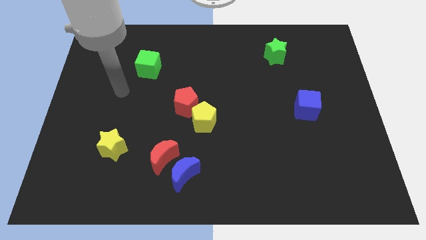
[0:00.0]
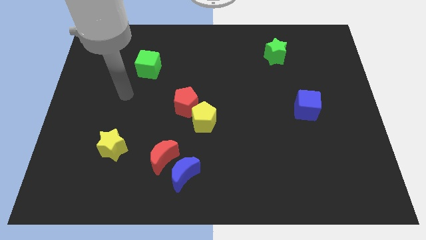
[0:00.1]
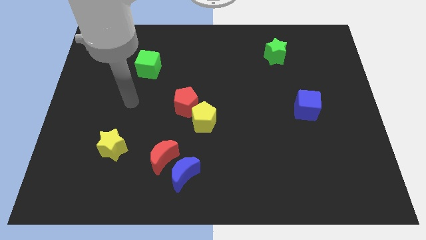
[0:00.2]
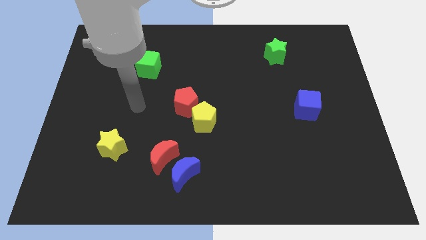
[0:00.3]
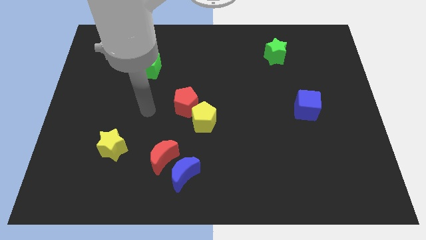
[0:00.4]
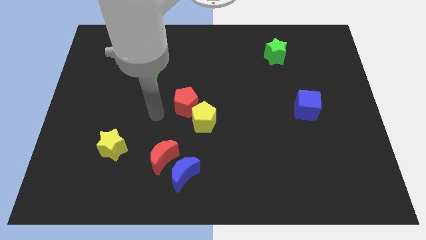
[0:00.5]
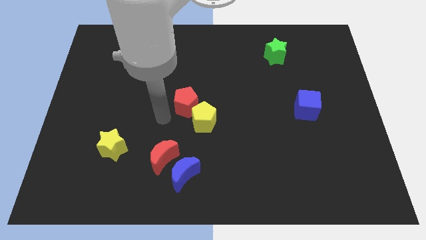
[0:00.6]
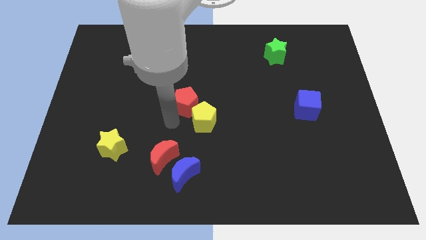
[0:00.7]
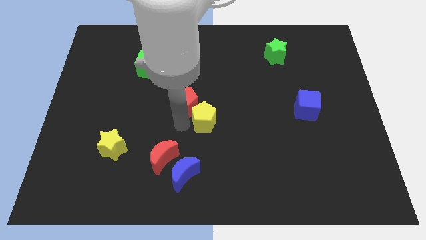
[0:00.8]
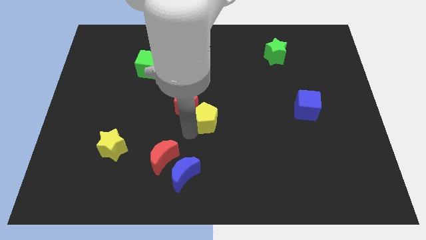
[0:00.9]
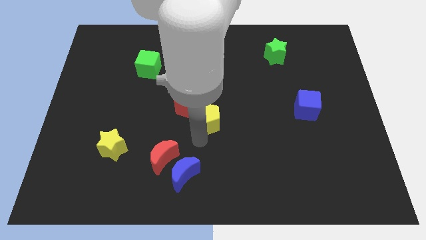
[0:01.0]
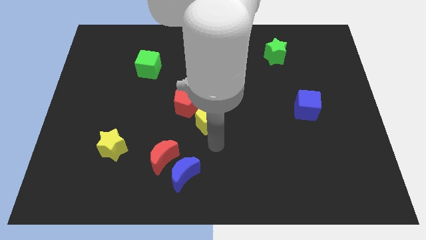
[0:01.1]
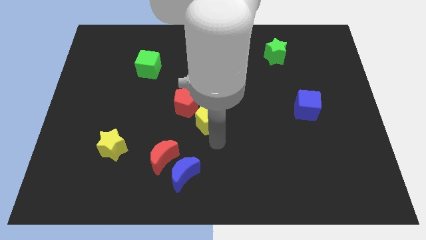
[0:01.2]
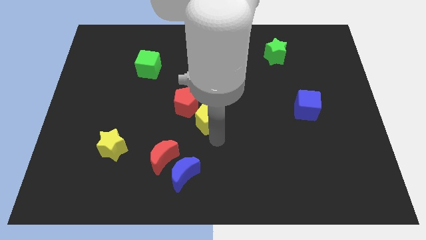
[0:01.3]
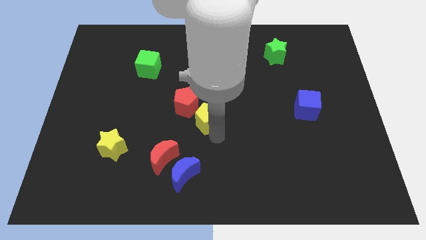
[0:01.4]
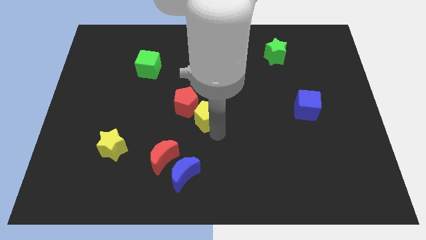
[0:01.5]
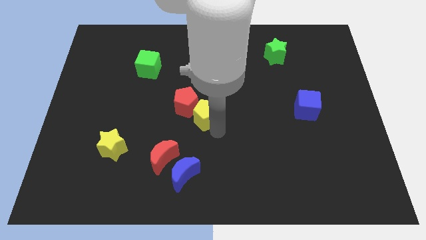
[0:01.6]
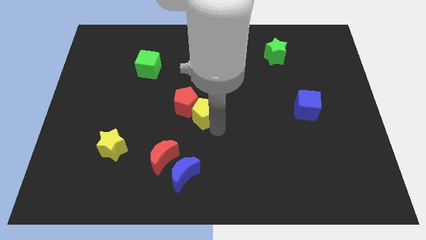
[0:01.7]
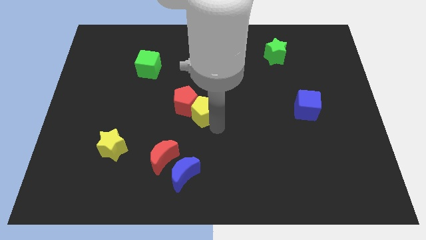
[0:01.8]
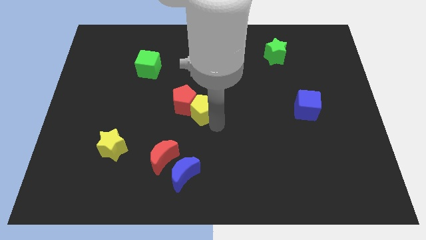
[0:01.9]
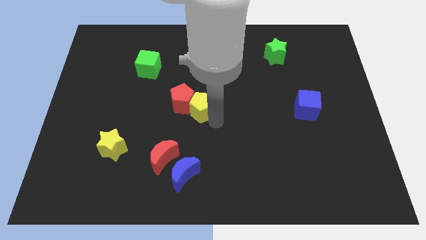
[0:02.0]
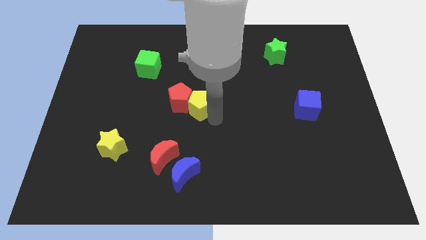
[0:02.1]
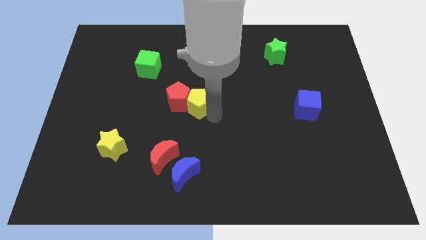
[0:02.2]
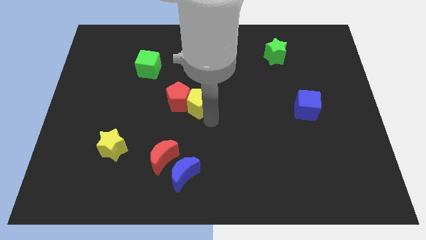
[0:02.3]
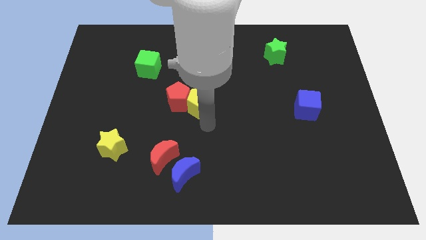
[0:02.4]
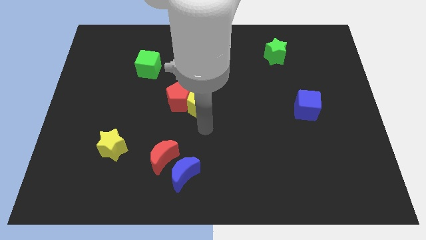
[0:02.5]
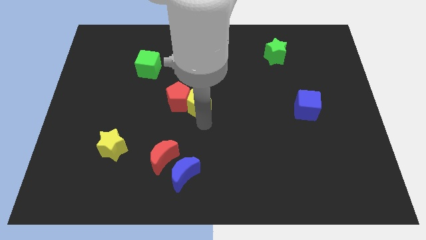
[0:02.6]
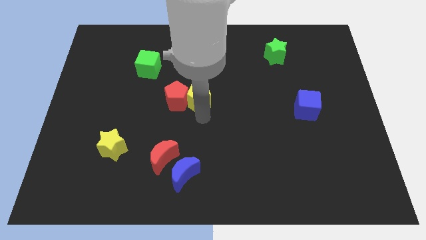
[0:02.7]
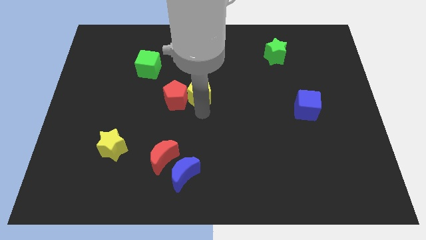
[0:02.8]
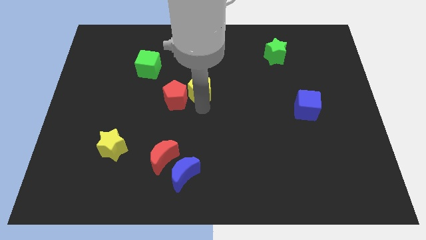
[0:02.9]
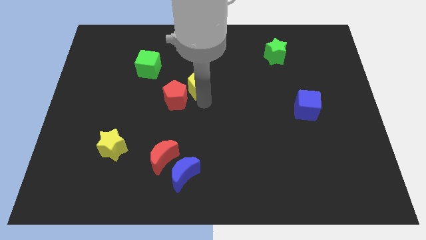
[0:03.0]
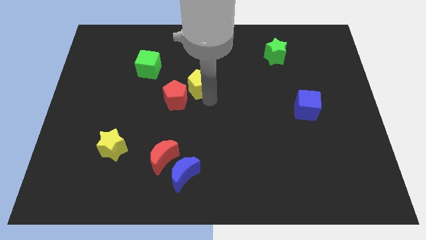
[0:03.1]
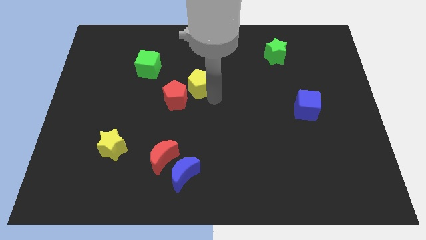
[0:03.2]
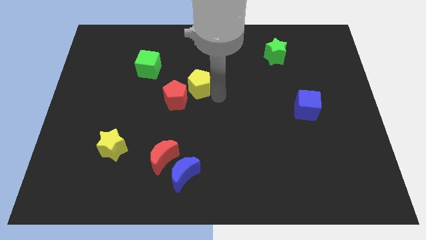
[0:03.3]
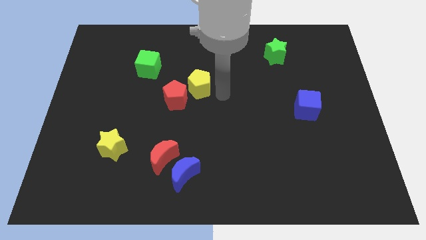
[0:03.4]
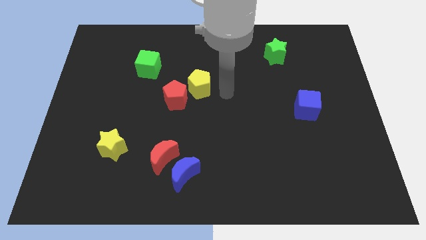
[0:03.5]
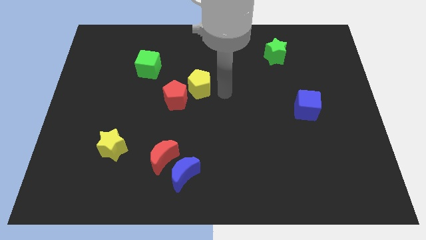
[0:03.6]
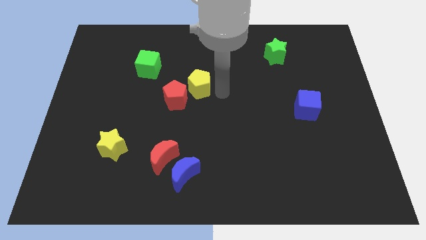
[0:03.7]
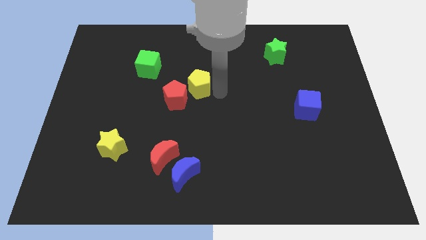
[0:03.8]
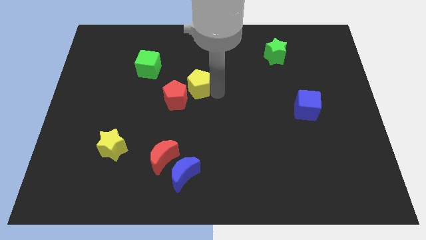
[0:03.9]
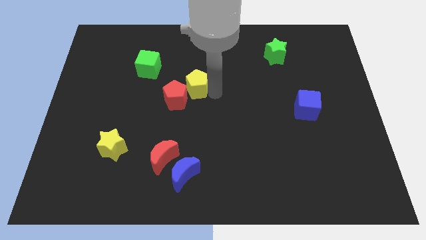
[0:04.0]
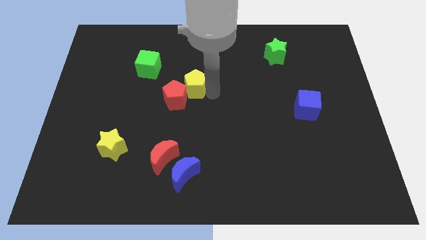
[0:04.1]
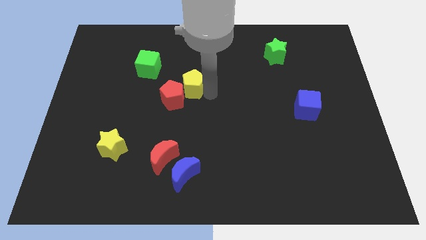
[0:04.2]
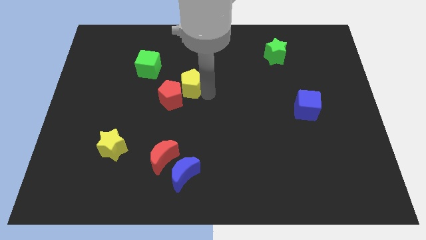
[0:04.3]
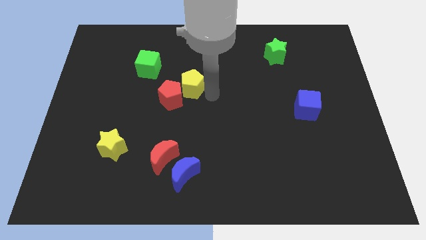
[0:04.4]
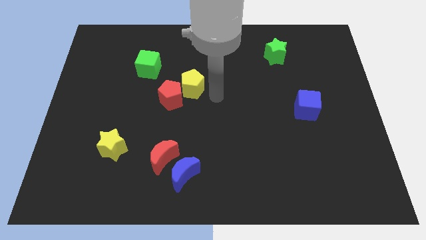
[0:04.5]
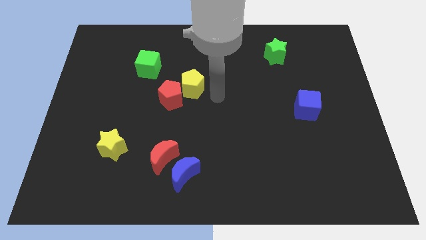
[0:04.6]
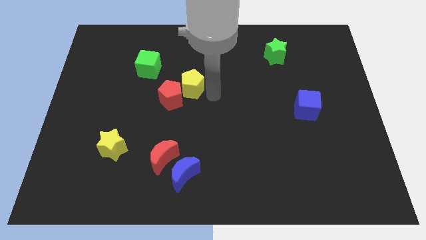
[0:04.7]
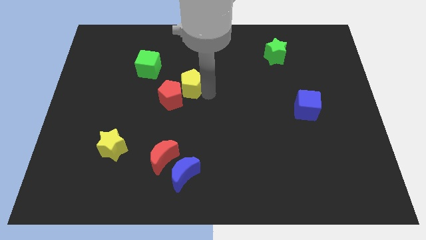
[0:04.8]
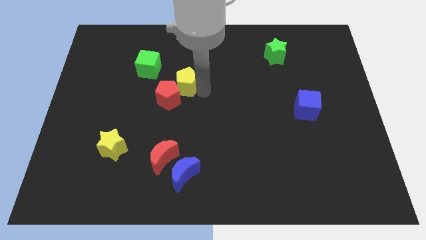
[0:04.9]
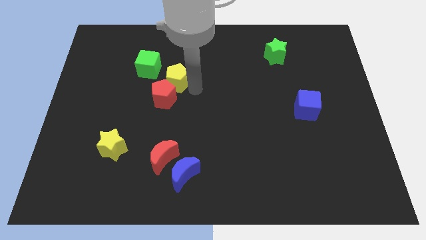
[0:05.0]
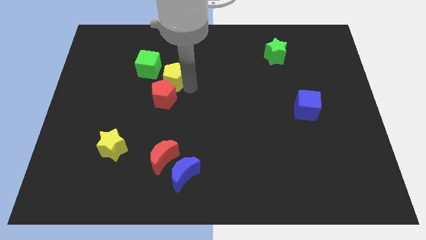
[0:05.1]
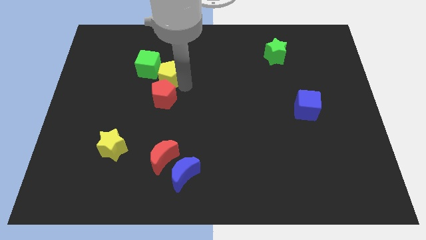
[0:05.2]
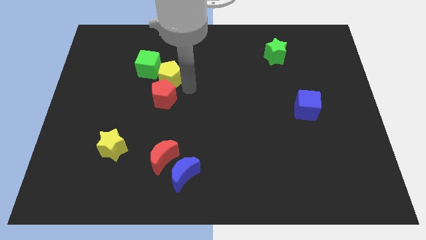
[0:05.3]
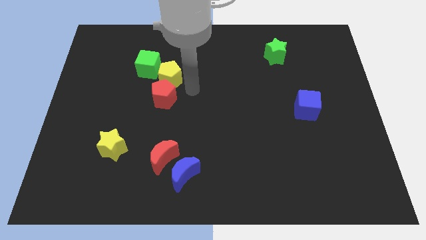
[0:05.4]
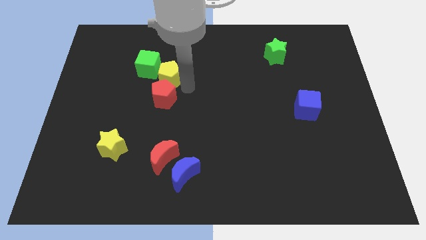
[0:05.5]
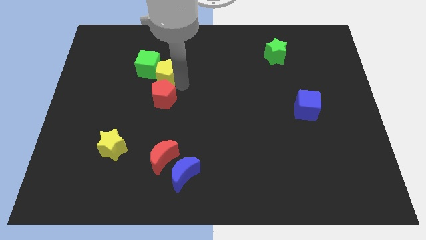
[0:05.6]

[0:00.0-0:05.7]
put the yellow pentagon close to the green cube

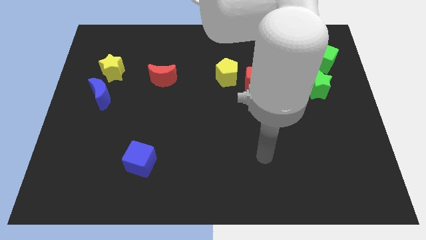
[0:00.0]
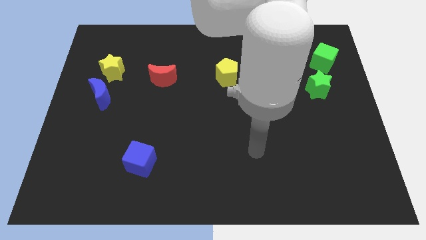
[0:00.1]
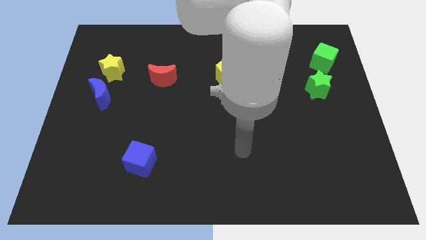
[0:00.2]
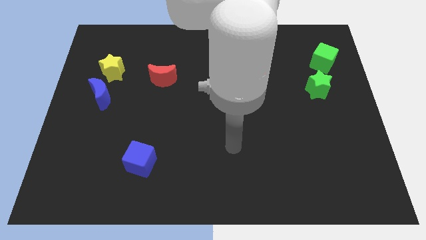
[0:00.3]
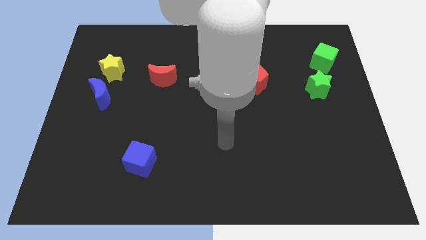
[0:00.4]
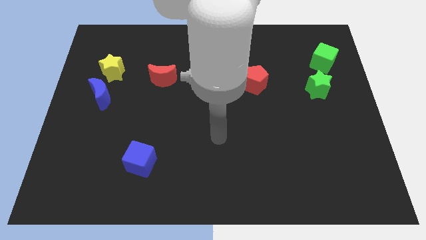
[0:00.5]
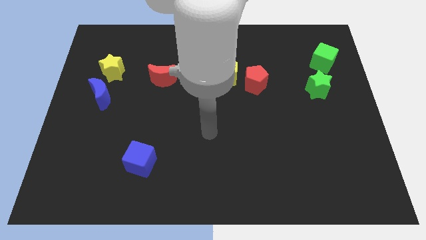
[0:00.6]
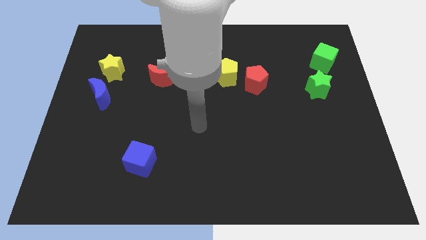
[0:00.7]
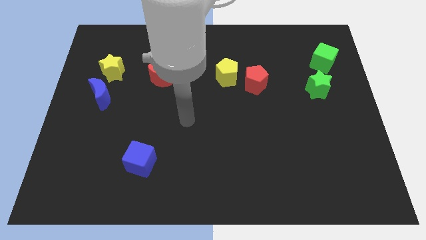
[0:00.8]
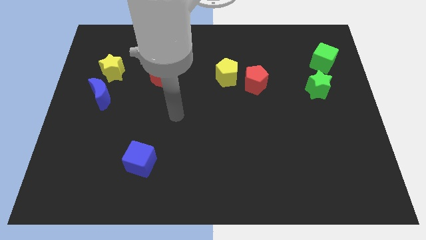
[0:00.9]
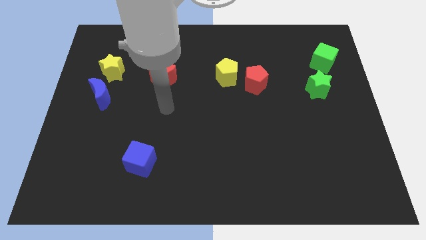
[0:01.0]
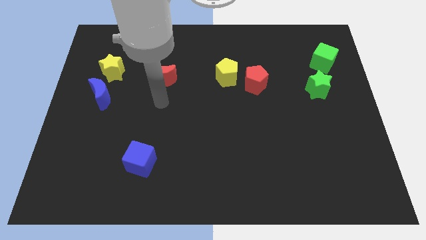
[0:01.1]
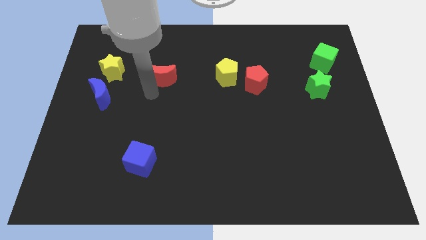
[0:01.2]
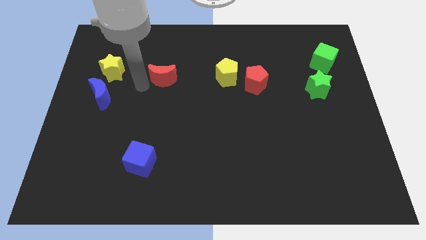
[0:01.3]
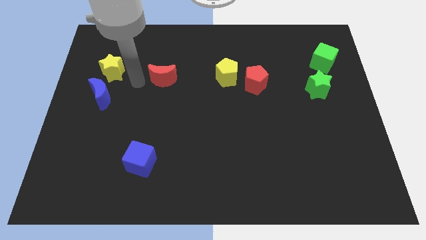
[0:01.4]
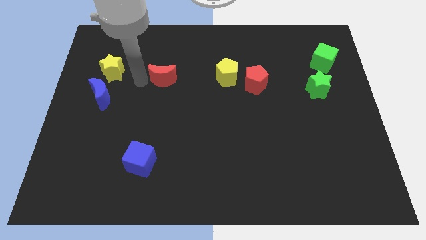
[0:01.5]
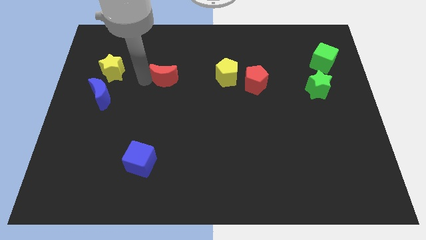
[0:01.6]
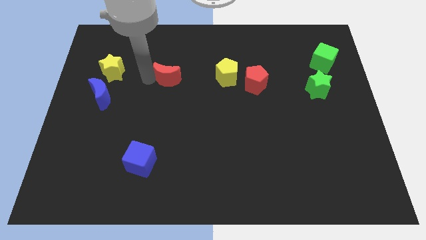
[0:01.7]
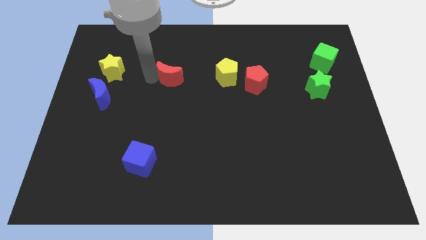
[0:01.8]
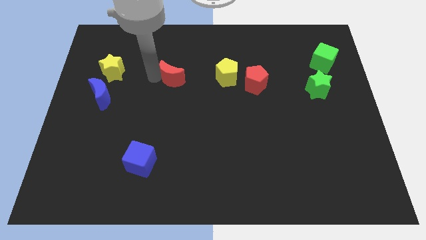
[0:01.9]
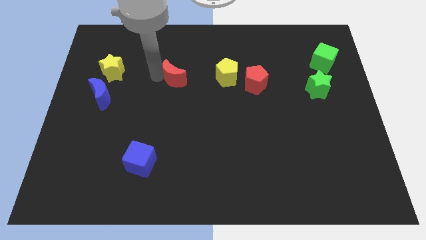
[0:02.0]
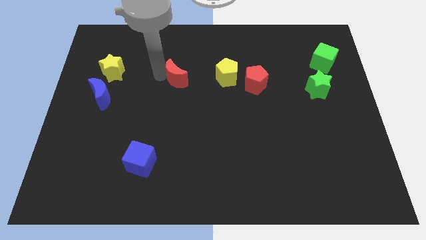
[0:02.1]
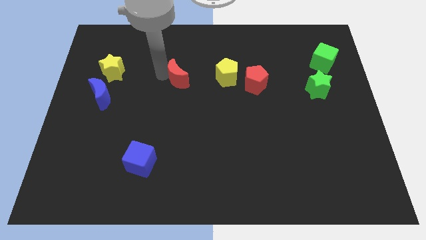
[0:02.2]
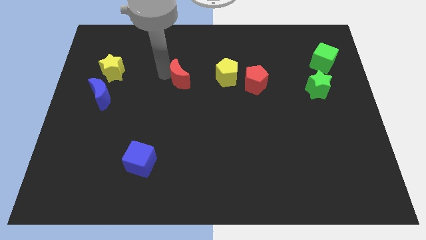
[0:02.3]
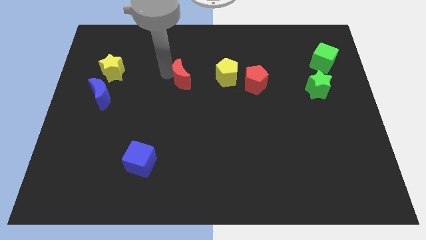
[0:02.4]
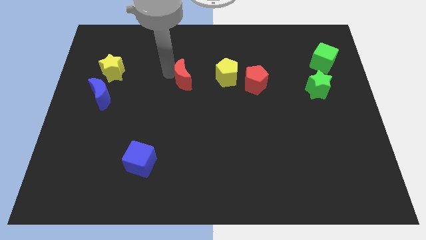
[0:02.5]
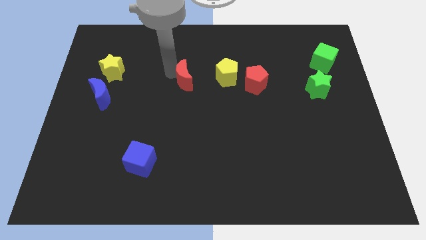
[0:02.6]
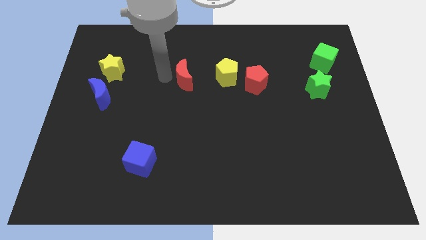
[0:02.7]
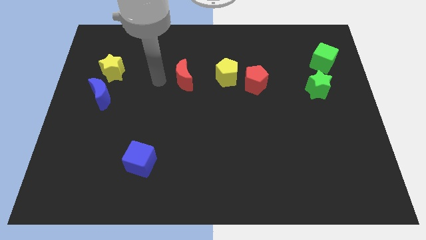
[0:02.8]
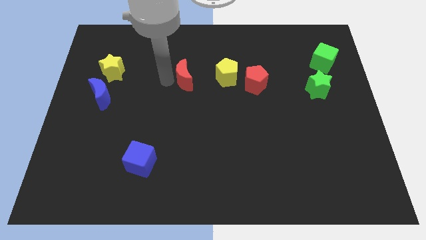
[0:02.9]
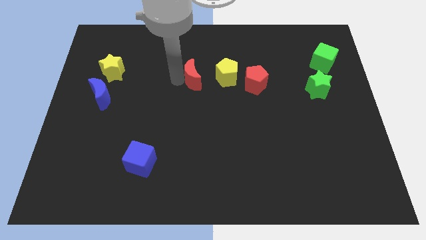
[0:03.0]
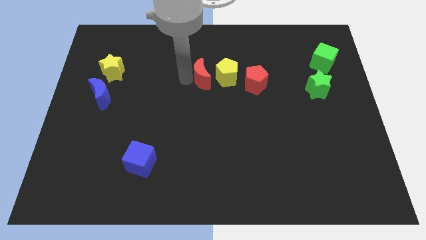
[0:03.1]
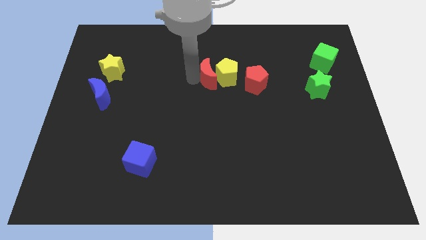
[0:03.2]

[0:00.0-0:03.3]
put the red moon next to the yellow pentagon
